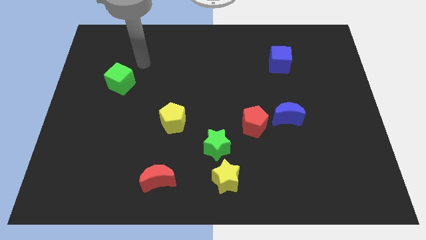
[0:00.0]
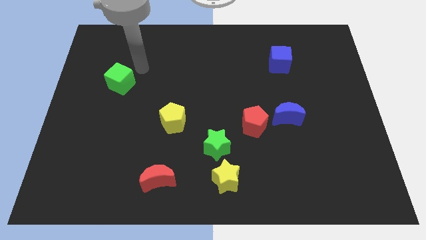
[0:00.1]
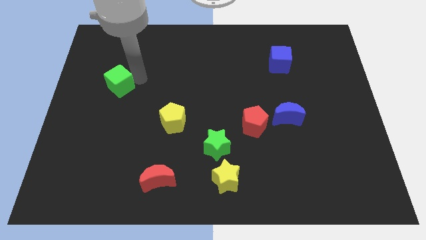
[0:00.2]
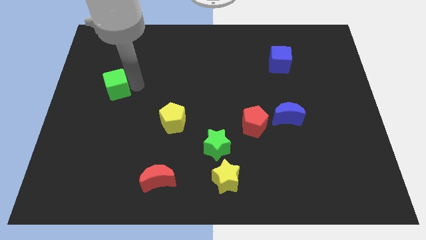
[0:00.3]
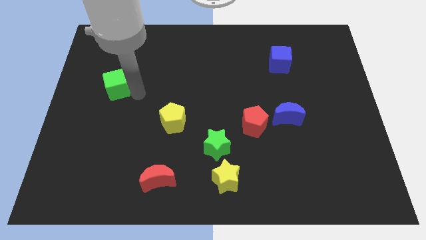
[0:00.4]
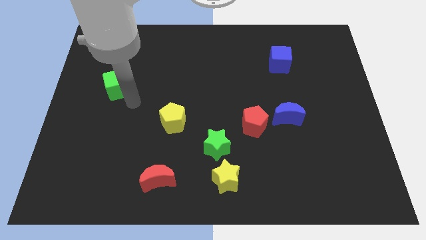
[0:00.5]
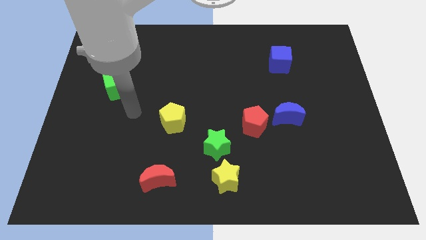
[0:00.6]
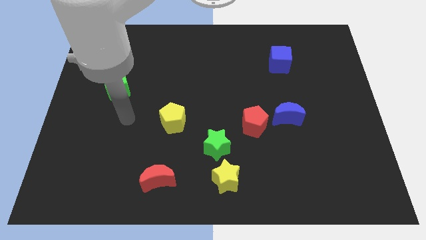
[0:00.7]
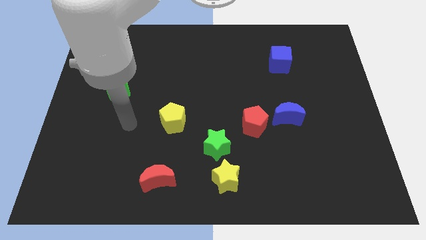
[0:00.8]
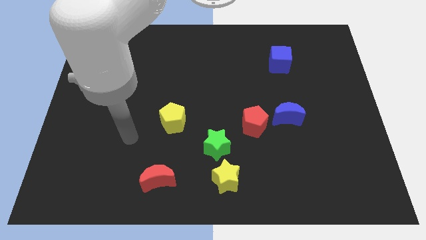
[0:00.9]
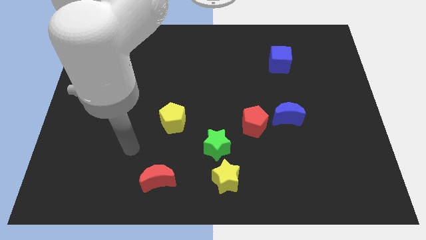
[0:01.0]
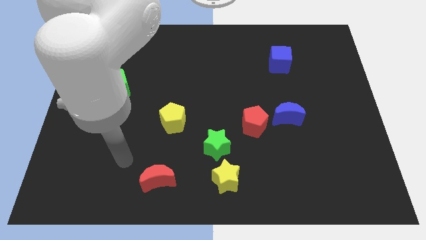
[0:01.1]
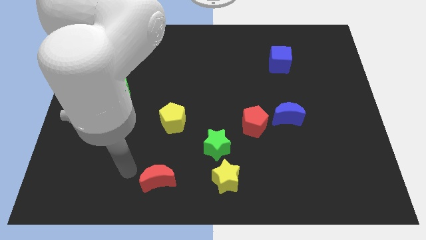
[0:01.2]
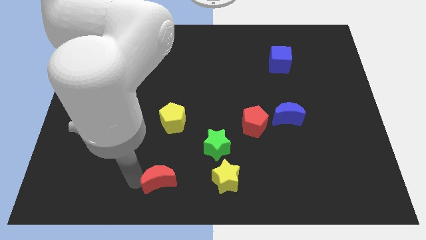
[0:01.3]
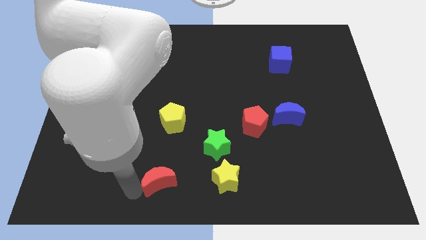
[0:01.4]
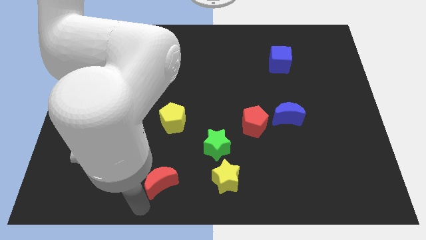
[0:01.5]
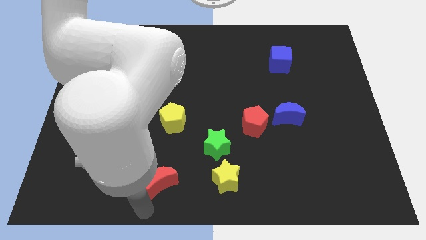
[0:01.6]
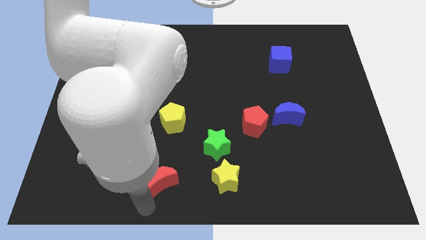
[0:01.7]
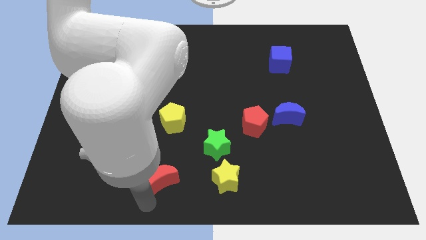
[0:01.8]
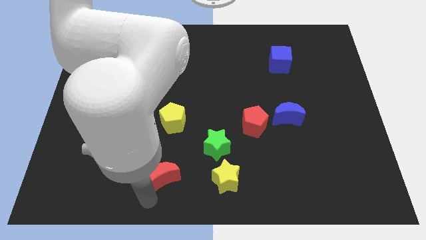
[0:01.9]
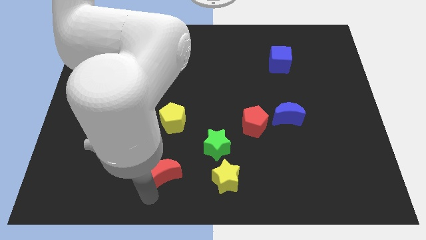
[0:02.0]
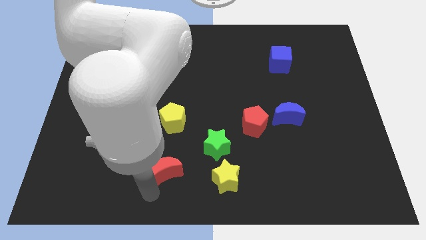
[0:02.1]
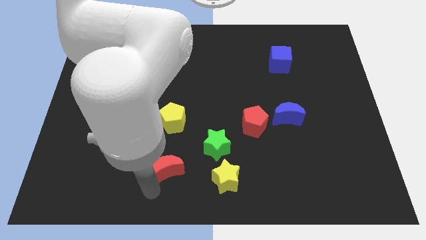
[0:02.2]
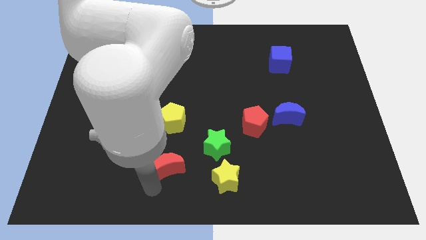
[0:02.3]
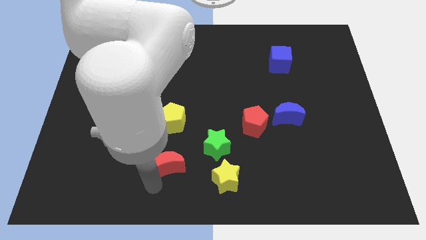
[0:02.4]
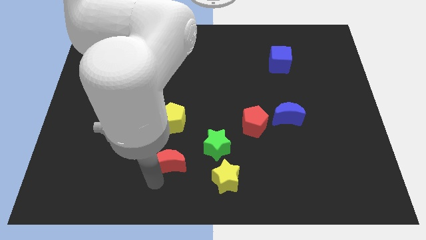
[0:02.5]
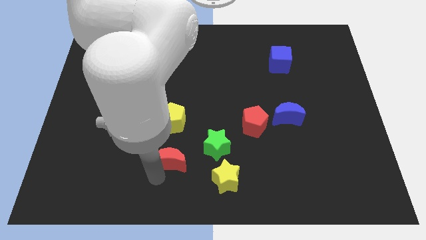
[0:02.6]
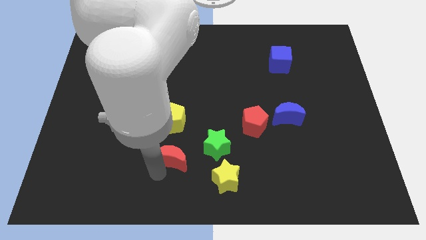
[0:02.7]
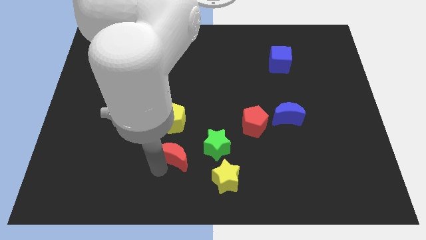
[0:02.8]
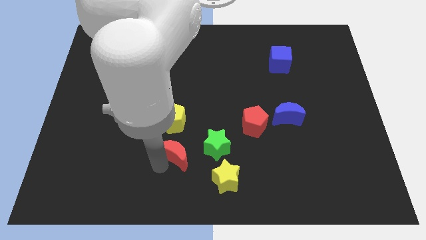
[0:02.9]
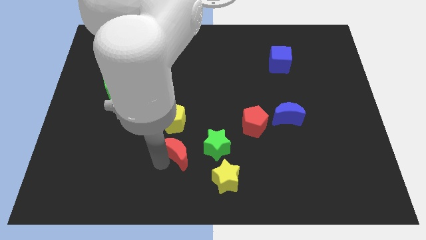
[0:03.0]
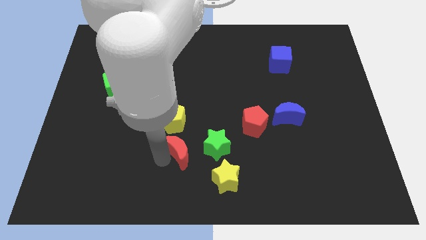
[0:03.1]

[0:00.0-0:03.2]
push the red moon a bit up and then right

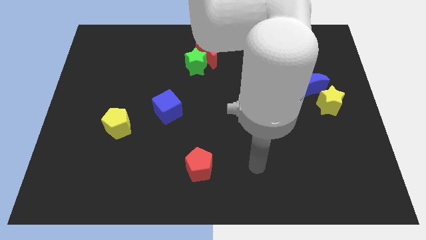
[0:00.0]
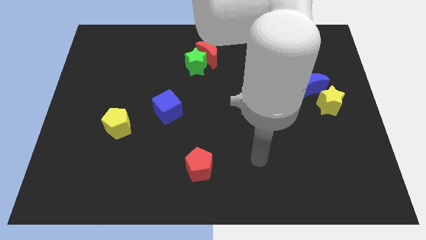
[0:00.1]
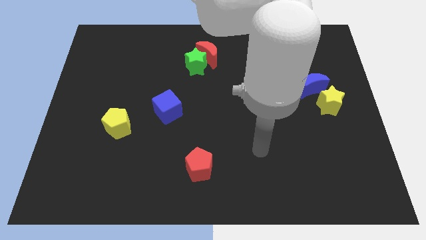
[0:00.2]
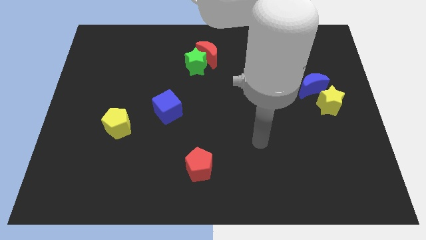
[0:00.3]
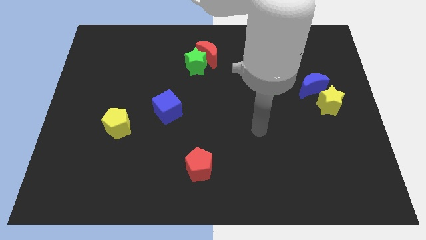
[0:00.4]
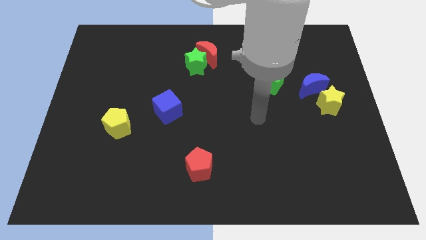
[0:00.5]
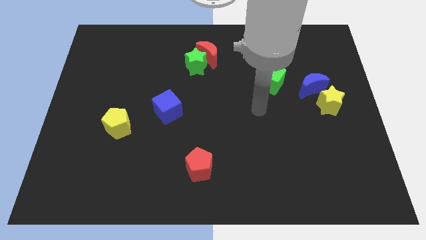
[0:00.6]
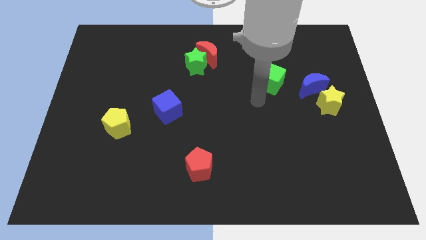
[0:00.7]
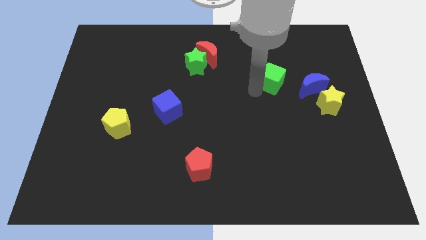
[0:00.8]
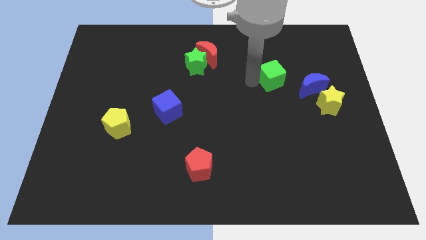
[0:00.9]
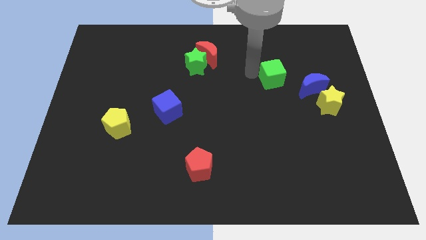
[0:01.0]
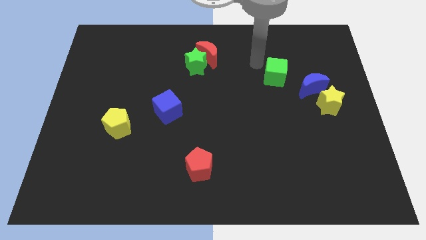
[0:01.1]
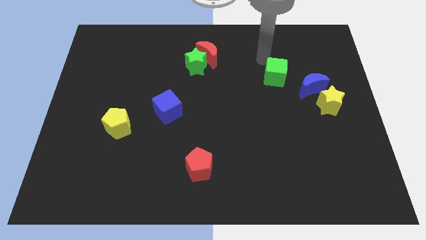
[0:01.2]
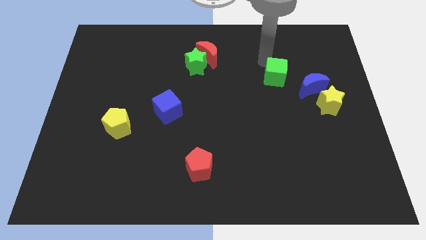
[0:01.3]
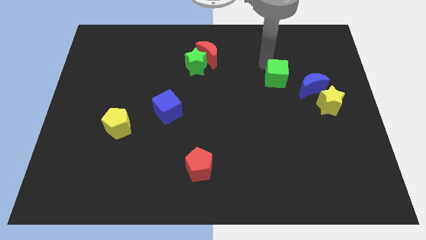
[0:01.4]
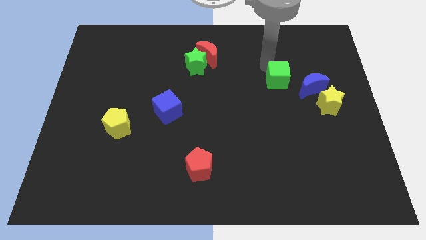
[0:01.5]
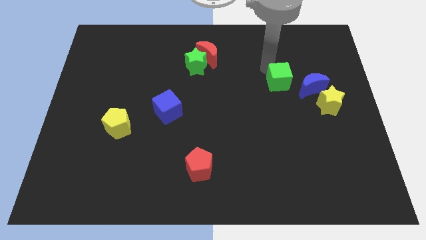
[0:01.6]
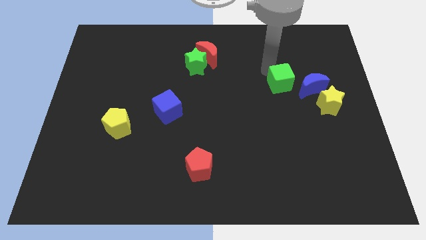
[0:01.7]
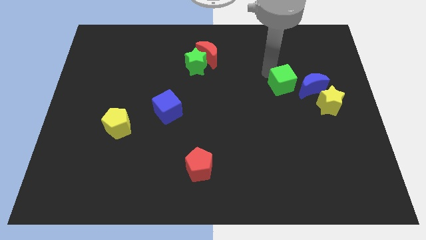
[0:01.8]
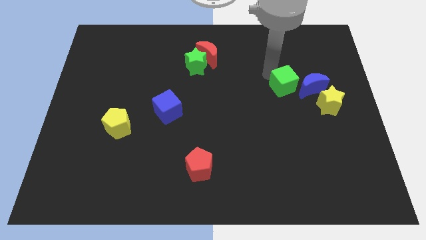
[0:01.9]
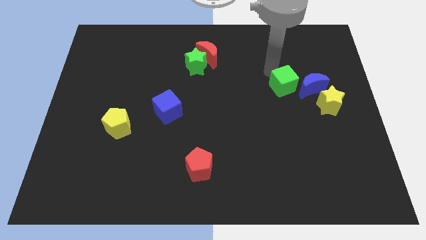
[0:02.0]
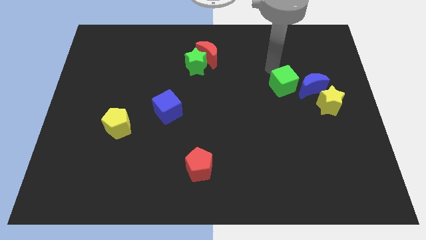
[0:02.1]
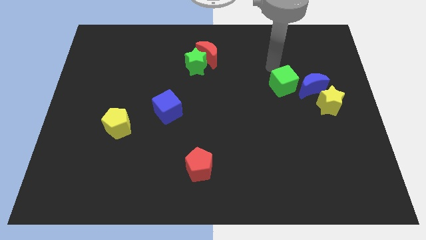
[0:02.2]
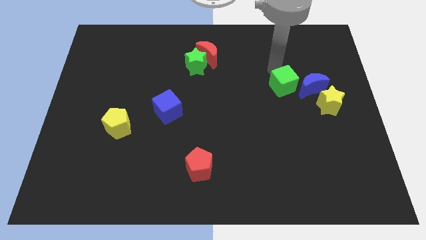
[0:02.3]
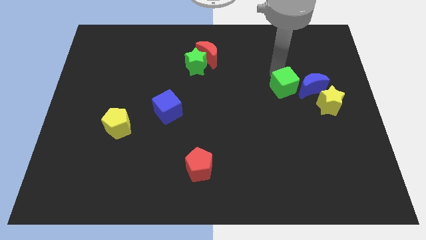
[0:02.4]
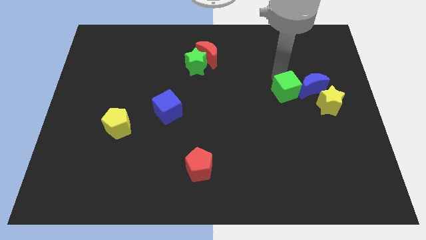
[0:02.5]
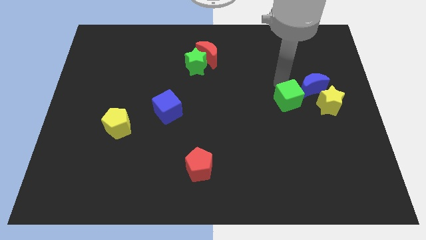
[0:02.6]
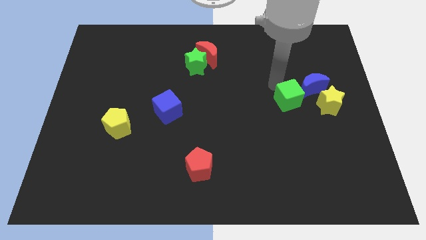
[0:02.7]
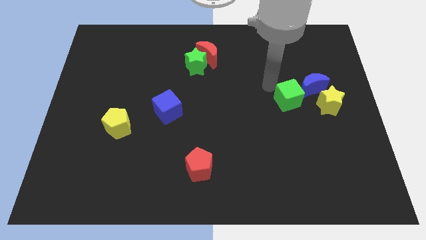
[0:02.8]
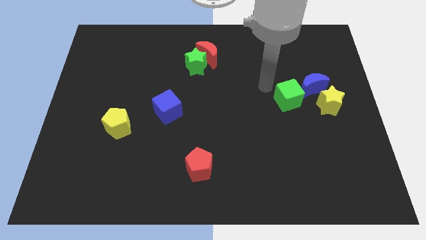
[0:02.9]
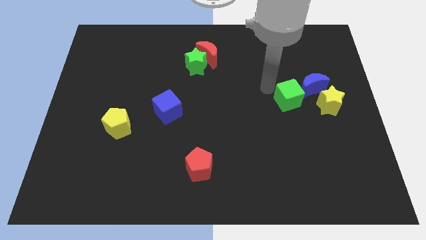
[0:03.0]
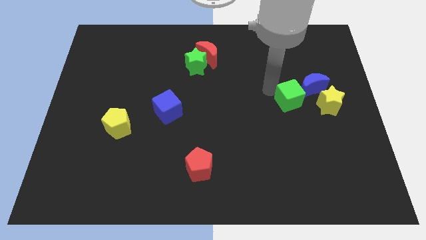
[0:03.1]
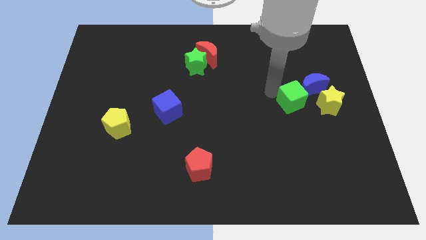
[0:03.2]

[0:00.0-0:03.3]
slightly move the green cube down and then right

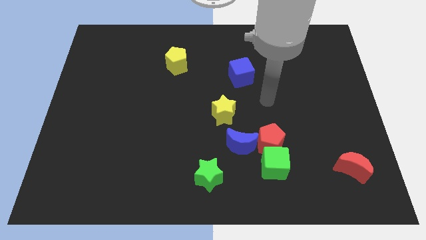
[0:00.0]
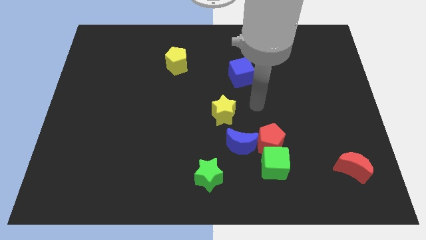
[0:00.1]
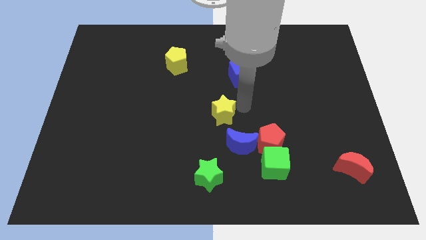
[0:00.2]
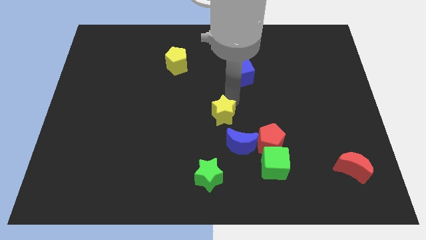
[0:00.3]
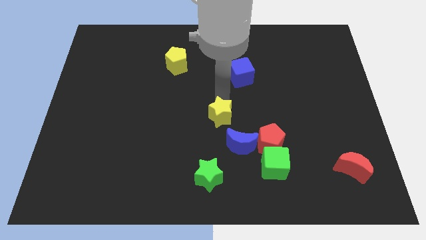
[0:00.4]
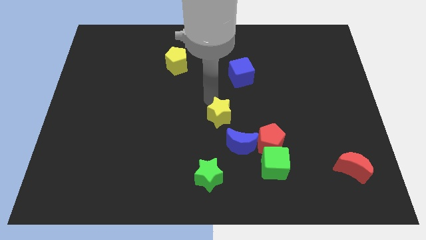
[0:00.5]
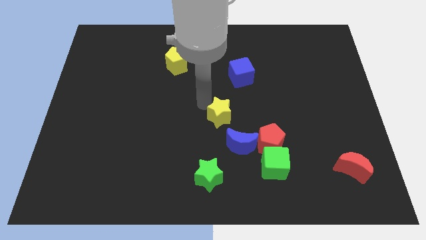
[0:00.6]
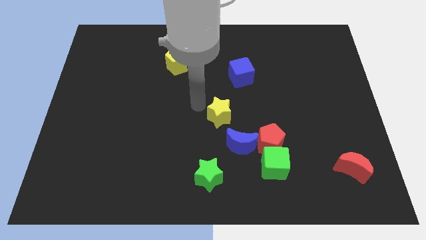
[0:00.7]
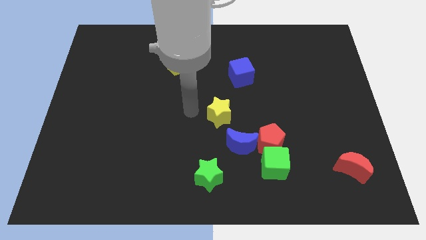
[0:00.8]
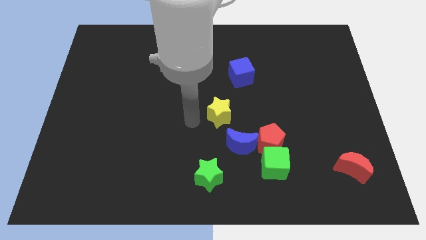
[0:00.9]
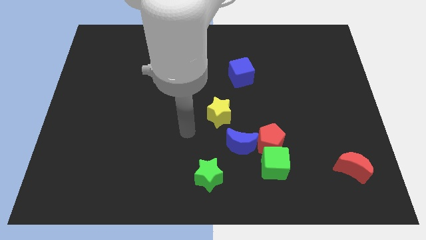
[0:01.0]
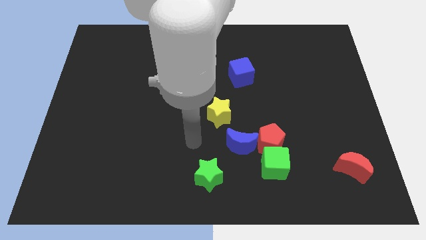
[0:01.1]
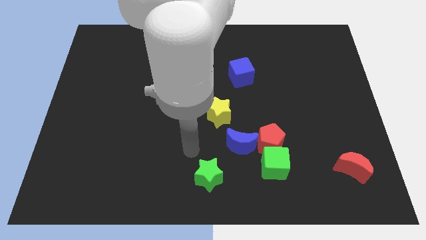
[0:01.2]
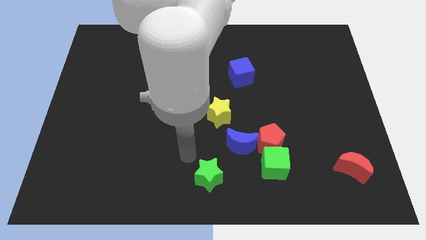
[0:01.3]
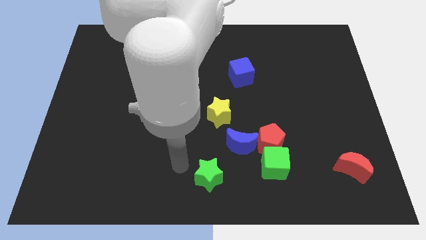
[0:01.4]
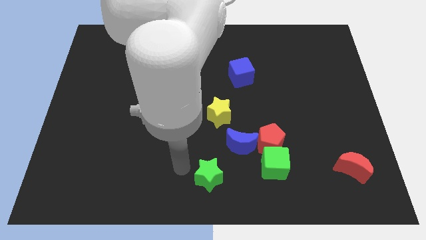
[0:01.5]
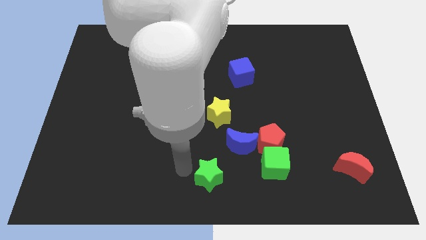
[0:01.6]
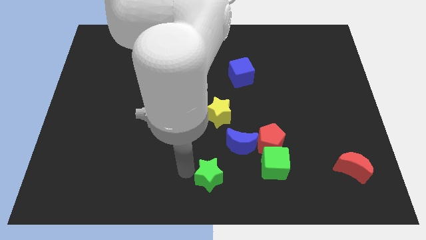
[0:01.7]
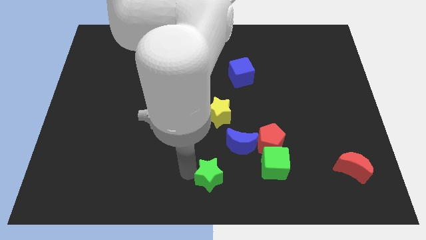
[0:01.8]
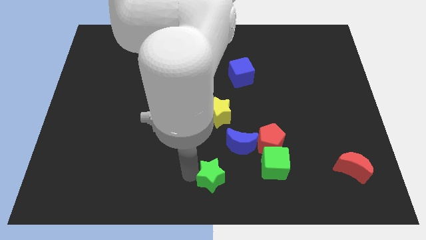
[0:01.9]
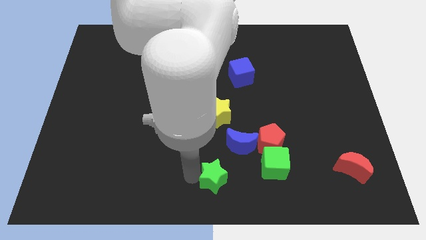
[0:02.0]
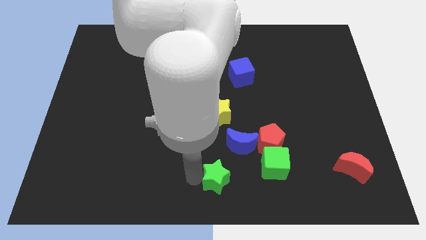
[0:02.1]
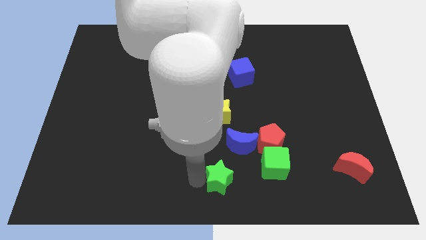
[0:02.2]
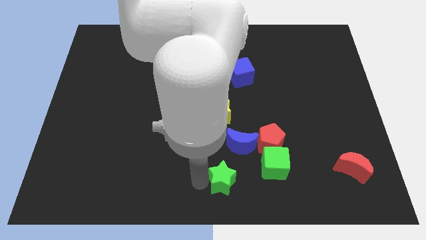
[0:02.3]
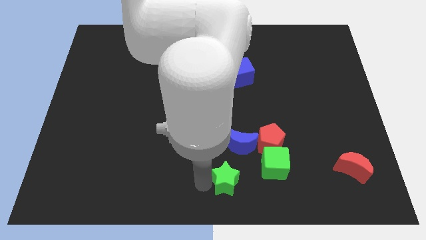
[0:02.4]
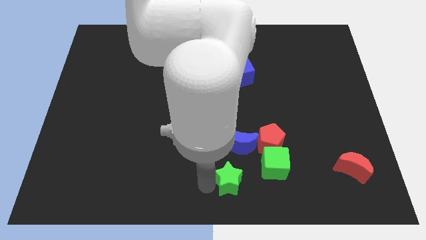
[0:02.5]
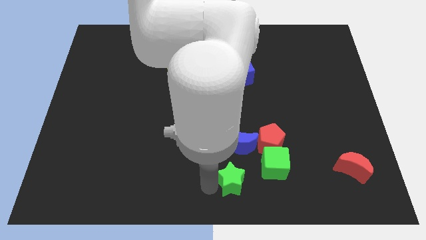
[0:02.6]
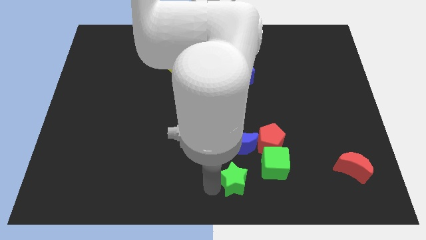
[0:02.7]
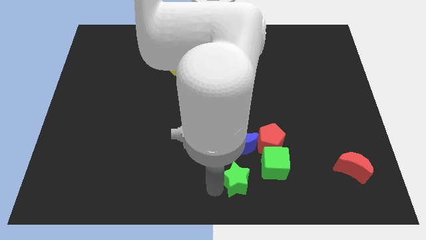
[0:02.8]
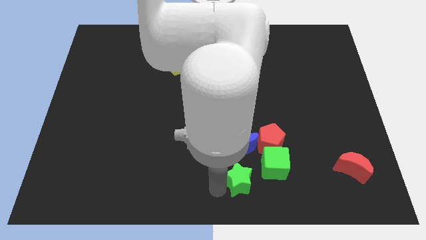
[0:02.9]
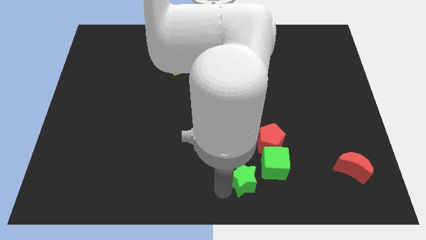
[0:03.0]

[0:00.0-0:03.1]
push the green star a bit to the right
